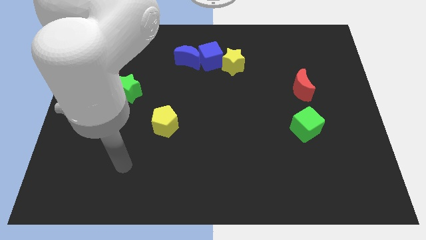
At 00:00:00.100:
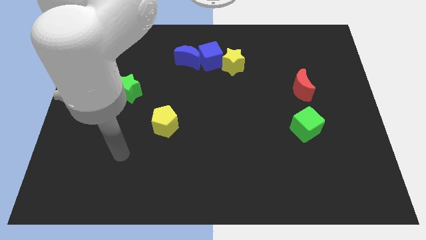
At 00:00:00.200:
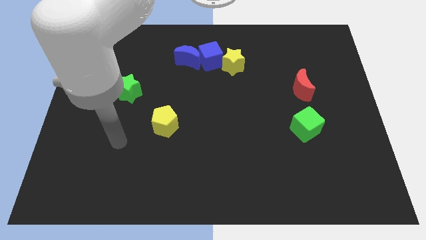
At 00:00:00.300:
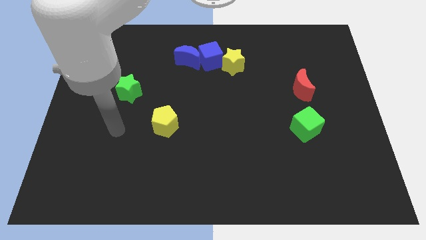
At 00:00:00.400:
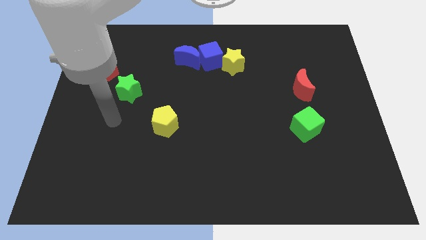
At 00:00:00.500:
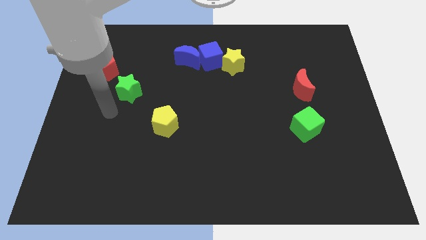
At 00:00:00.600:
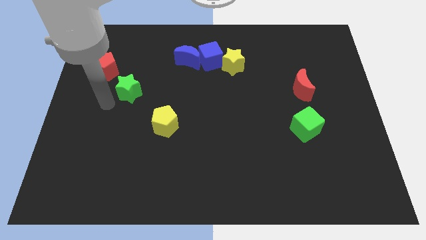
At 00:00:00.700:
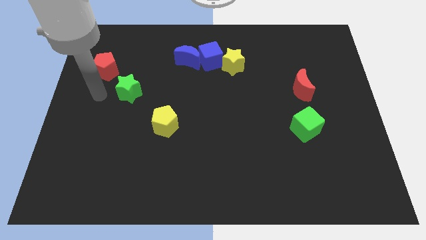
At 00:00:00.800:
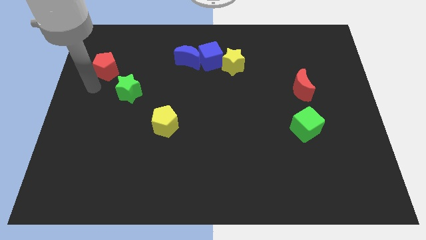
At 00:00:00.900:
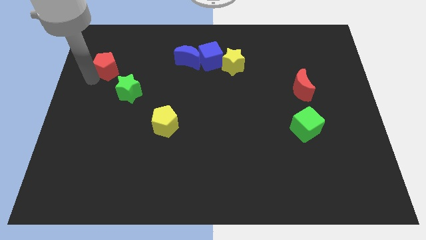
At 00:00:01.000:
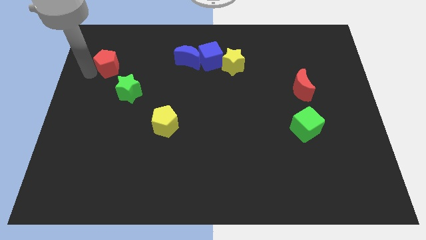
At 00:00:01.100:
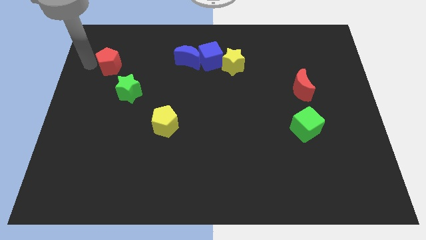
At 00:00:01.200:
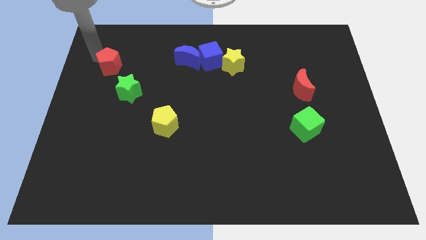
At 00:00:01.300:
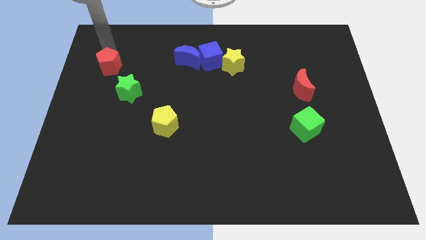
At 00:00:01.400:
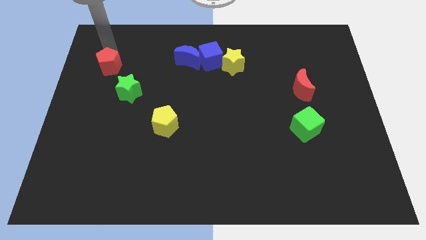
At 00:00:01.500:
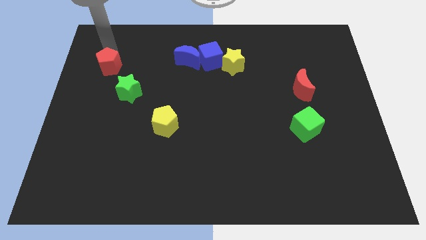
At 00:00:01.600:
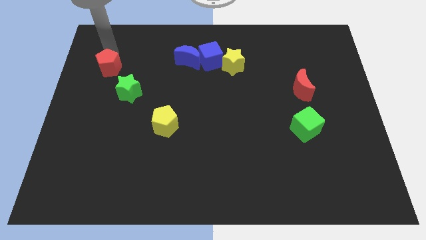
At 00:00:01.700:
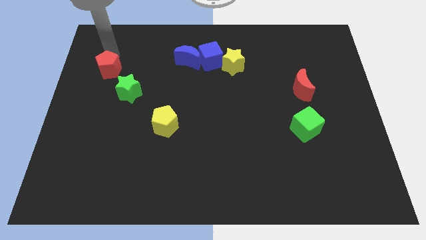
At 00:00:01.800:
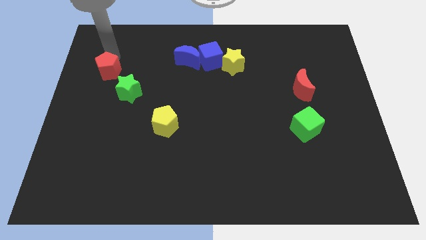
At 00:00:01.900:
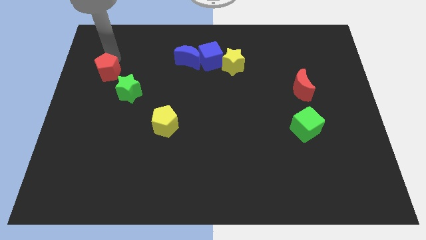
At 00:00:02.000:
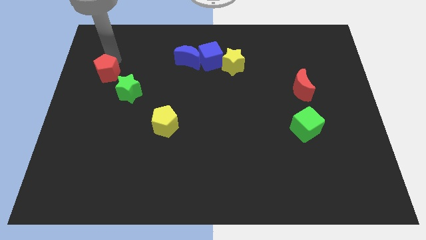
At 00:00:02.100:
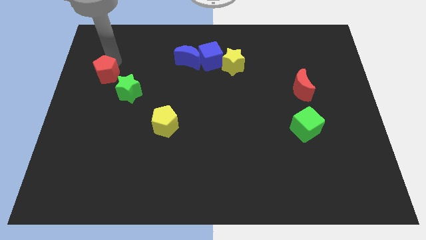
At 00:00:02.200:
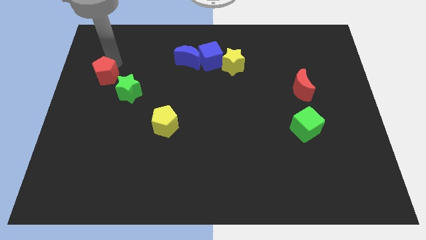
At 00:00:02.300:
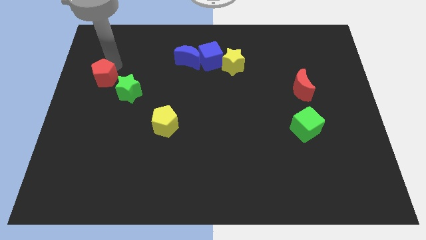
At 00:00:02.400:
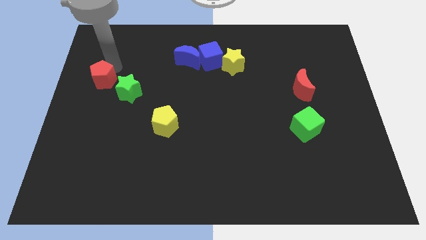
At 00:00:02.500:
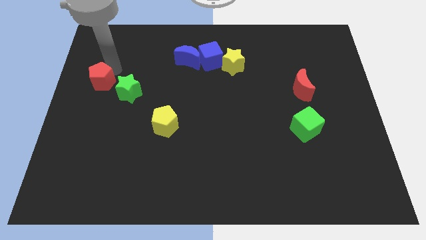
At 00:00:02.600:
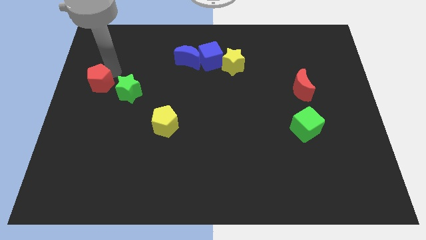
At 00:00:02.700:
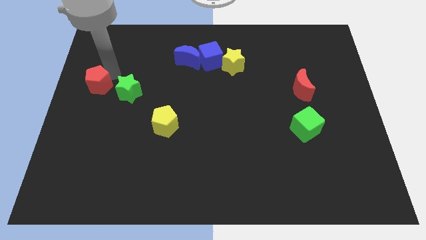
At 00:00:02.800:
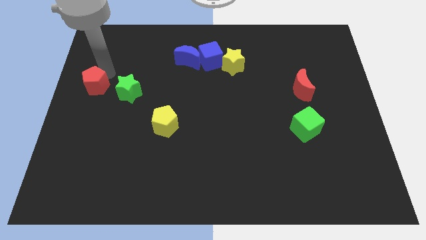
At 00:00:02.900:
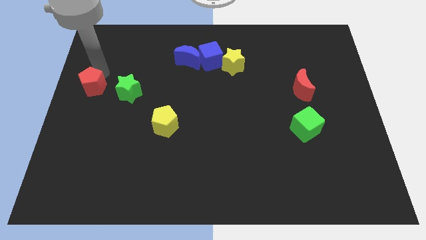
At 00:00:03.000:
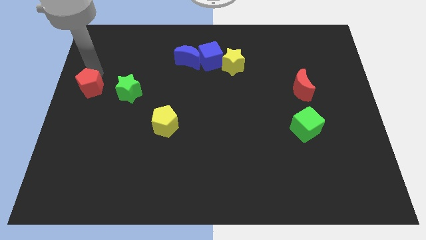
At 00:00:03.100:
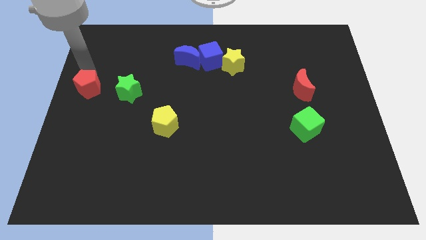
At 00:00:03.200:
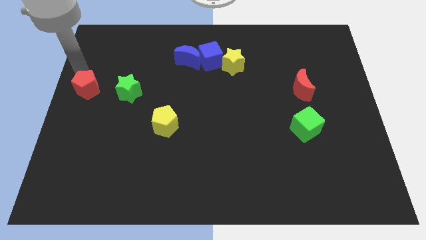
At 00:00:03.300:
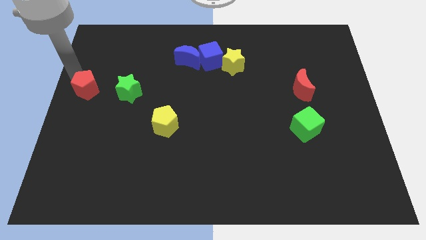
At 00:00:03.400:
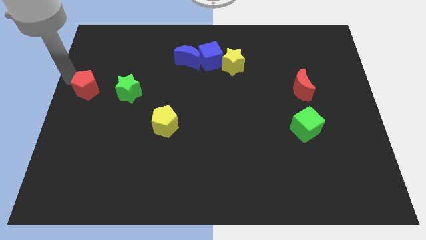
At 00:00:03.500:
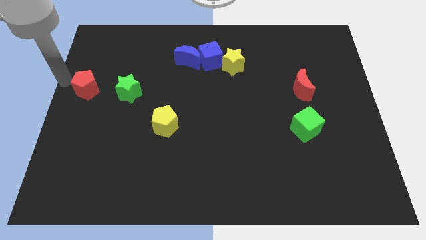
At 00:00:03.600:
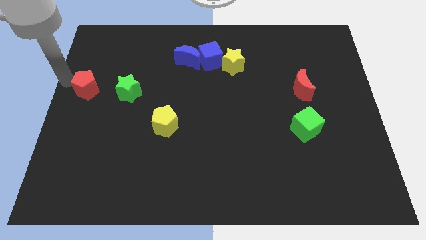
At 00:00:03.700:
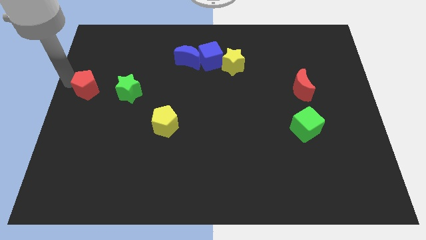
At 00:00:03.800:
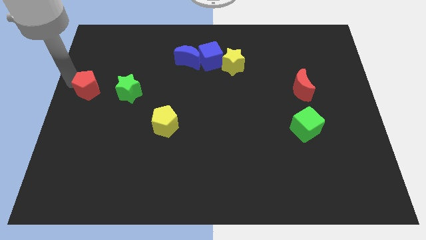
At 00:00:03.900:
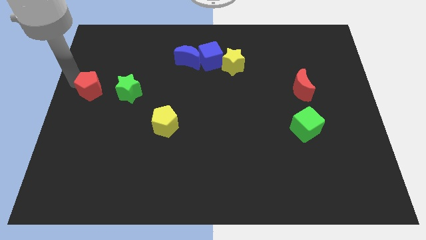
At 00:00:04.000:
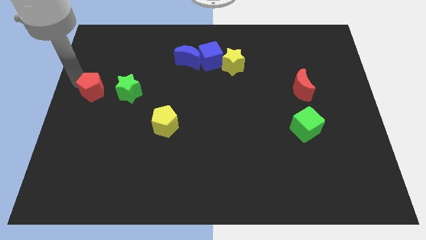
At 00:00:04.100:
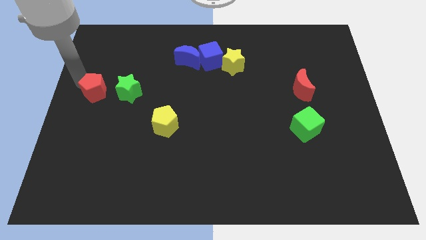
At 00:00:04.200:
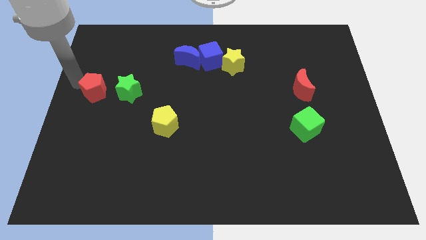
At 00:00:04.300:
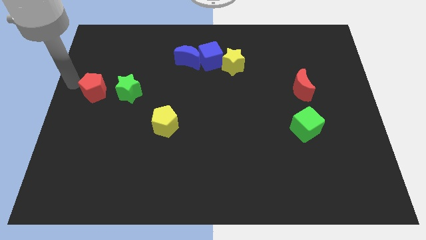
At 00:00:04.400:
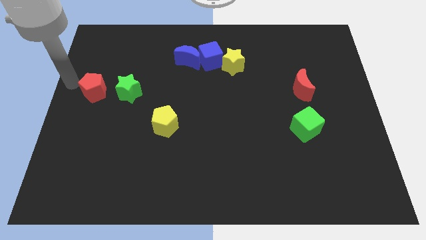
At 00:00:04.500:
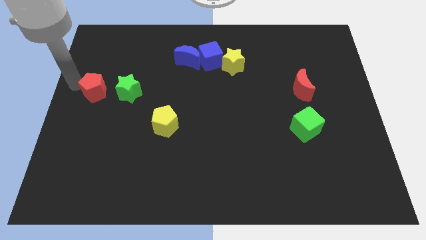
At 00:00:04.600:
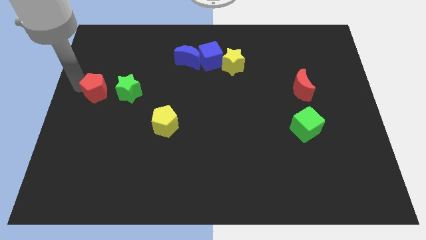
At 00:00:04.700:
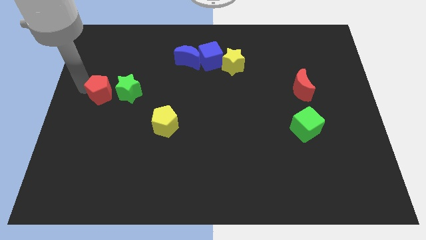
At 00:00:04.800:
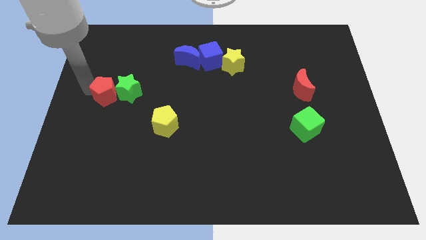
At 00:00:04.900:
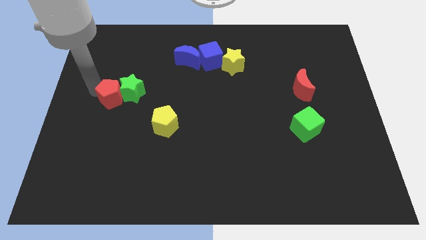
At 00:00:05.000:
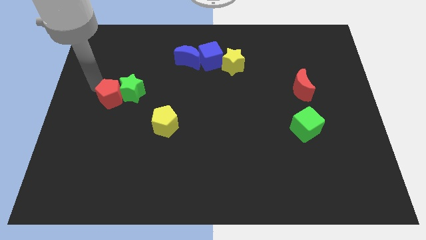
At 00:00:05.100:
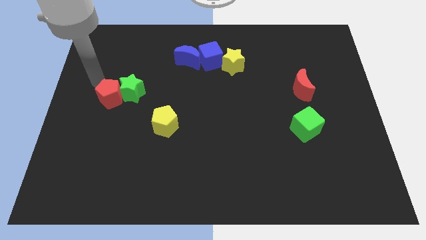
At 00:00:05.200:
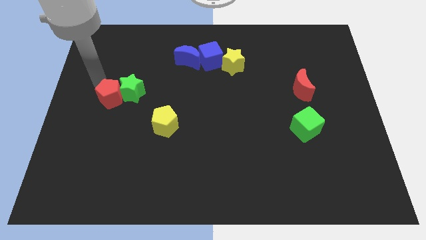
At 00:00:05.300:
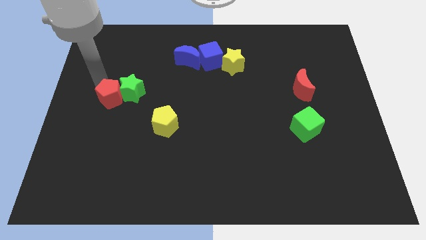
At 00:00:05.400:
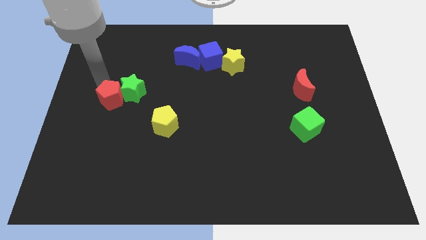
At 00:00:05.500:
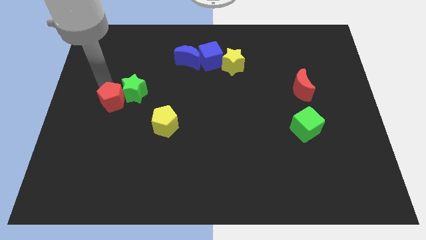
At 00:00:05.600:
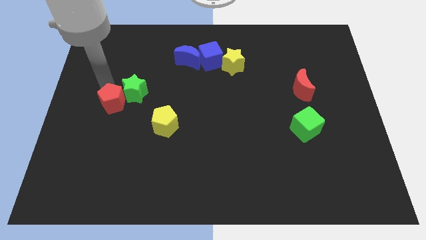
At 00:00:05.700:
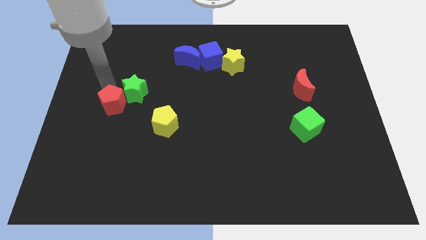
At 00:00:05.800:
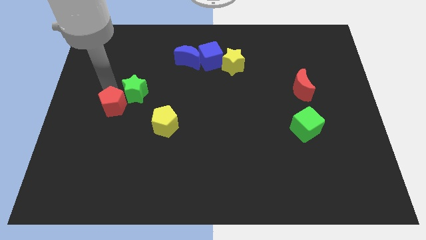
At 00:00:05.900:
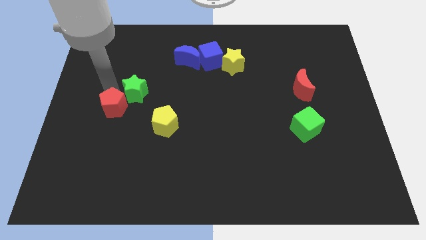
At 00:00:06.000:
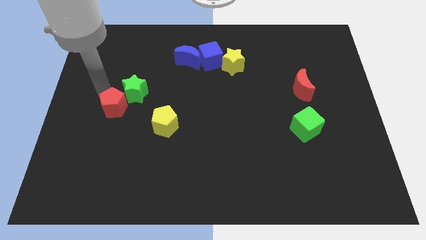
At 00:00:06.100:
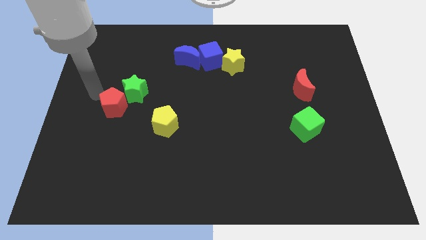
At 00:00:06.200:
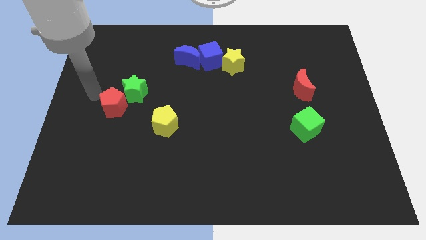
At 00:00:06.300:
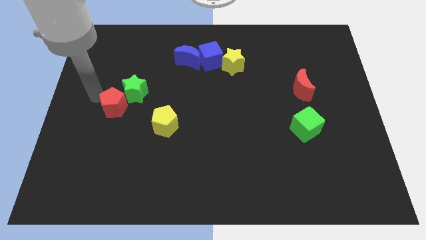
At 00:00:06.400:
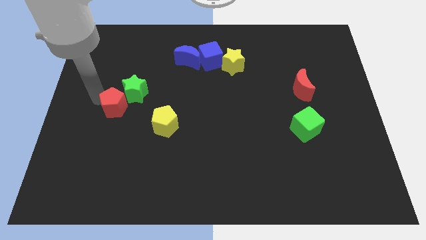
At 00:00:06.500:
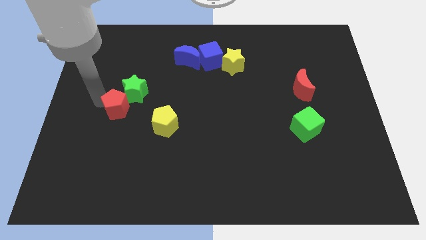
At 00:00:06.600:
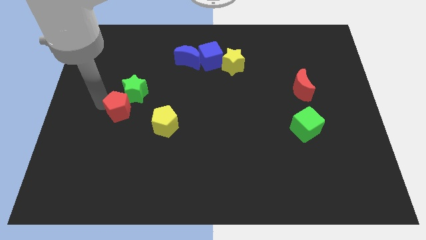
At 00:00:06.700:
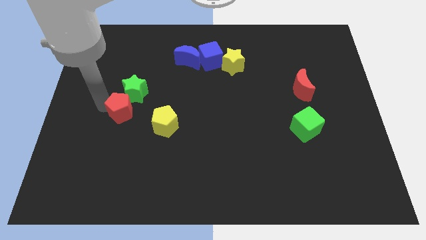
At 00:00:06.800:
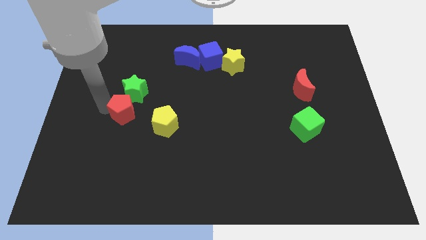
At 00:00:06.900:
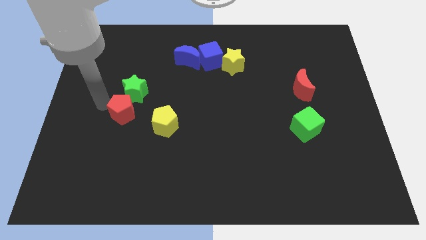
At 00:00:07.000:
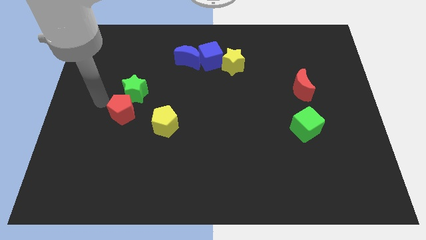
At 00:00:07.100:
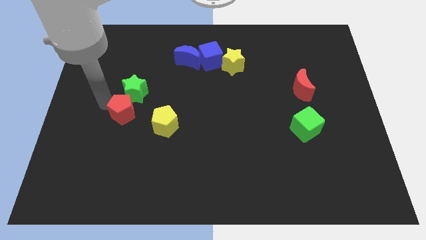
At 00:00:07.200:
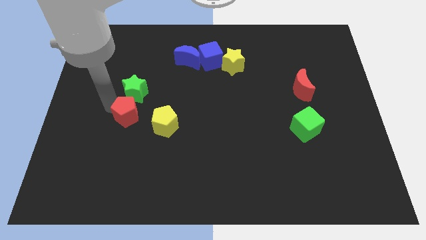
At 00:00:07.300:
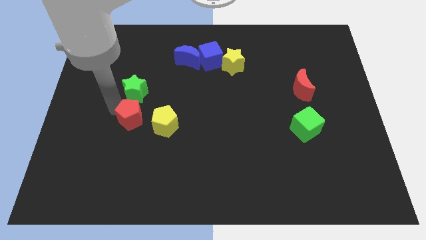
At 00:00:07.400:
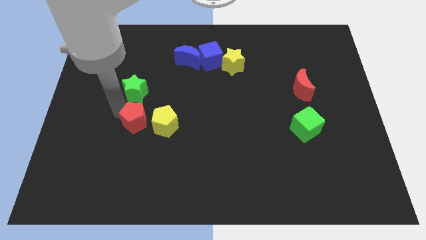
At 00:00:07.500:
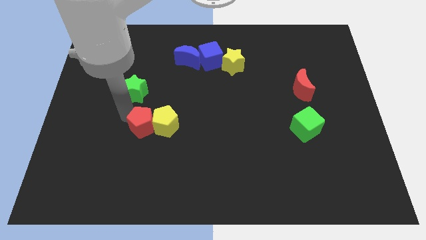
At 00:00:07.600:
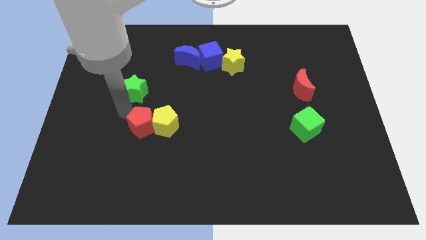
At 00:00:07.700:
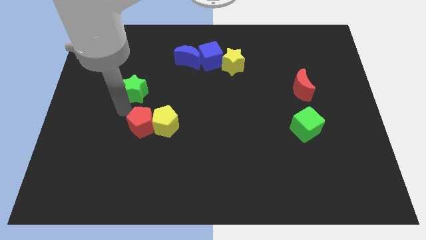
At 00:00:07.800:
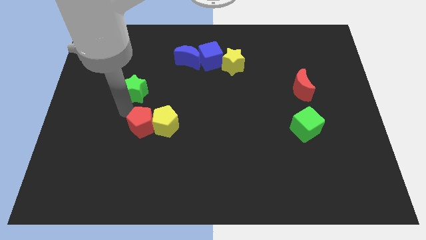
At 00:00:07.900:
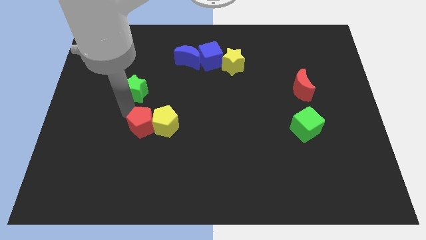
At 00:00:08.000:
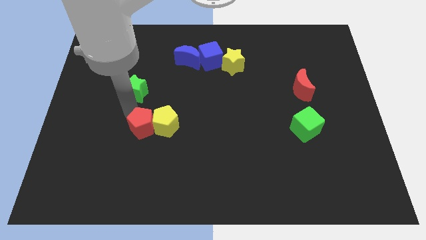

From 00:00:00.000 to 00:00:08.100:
push the red pentagon diagonally down and to the right
